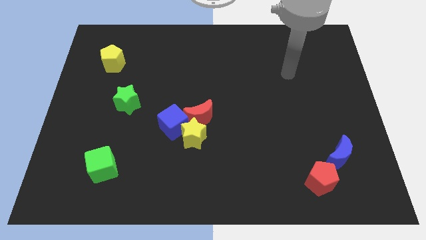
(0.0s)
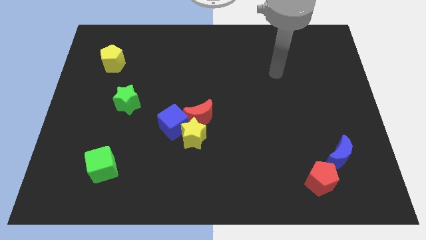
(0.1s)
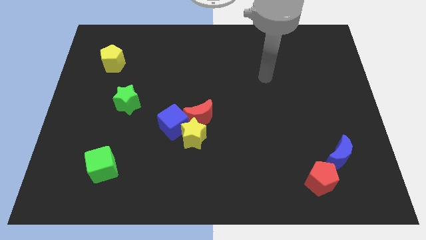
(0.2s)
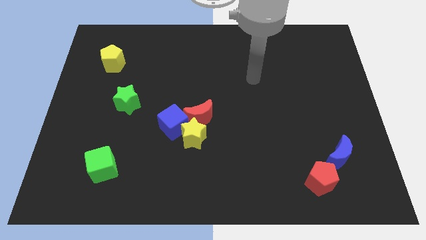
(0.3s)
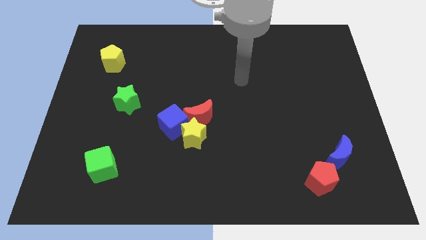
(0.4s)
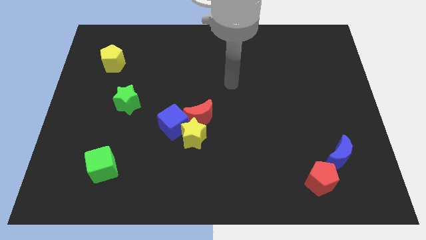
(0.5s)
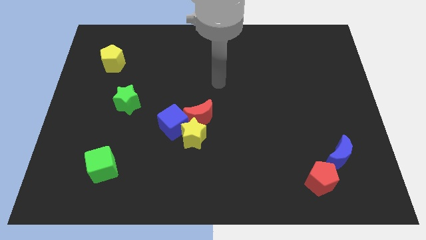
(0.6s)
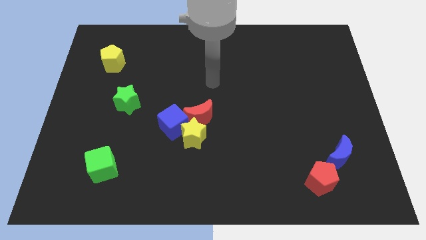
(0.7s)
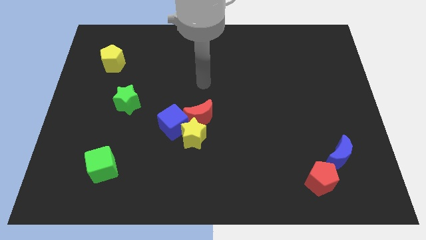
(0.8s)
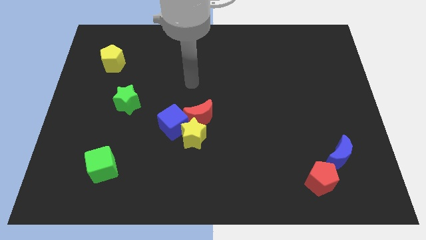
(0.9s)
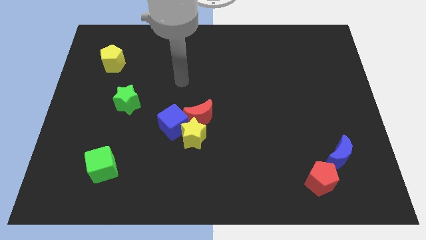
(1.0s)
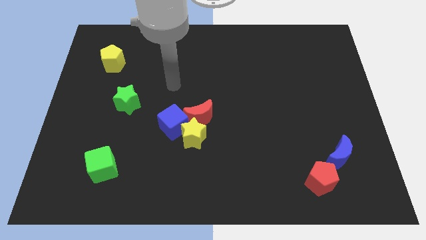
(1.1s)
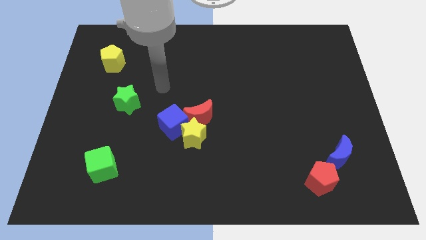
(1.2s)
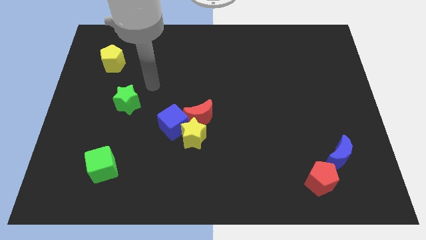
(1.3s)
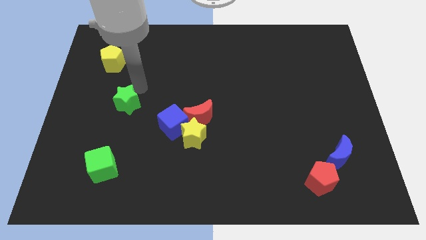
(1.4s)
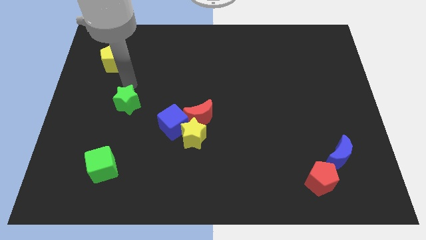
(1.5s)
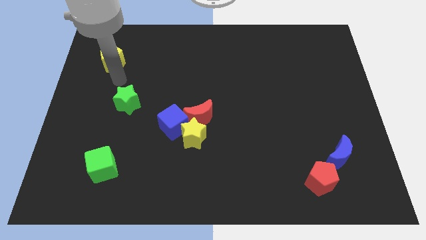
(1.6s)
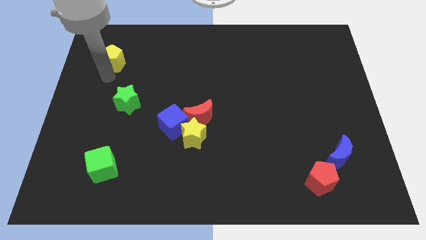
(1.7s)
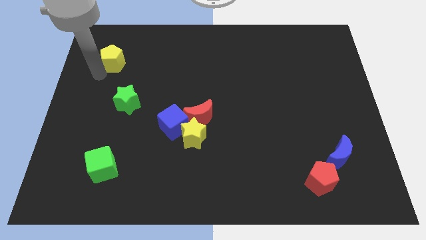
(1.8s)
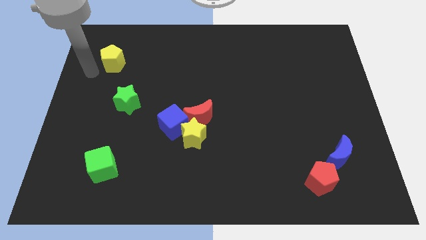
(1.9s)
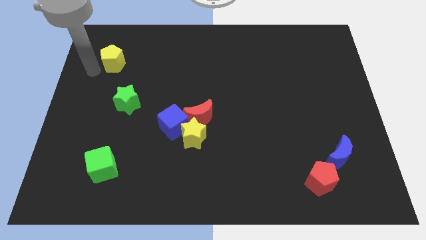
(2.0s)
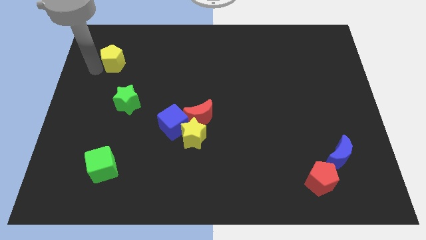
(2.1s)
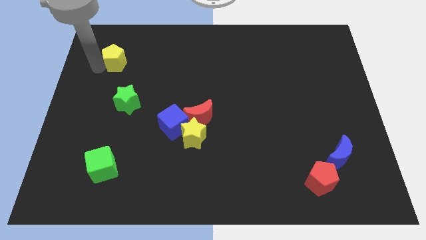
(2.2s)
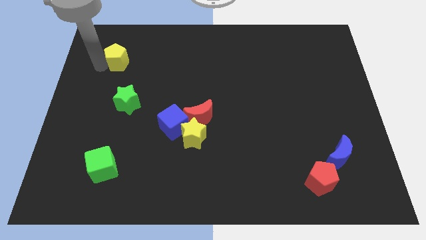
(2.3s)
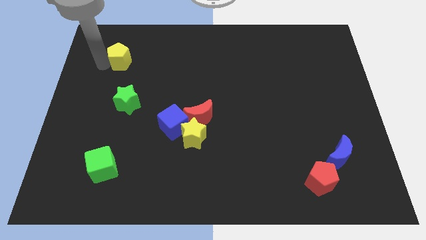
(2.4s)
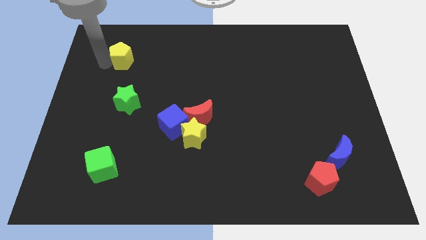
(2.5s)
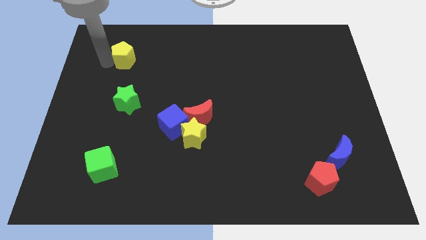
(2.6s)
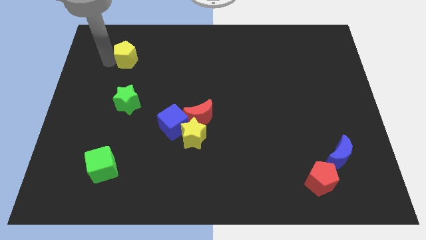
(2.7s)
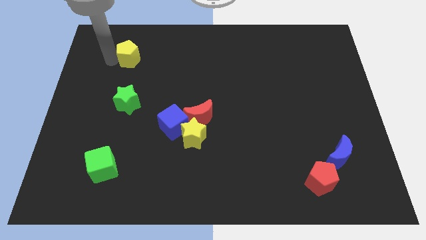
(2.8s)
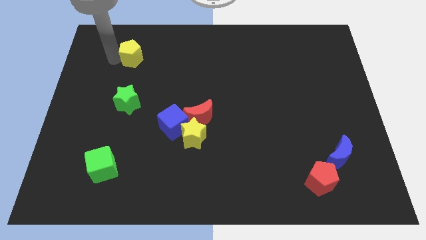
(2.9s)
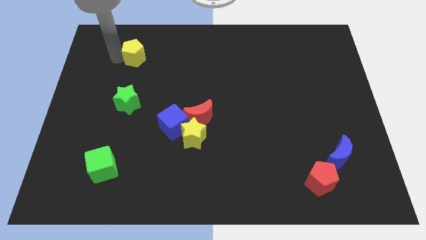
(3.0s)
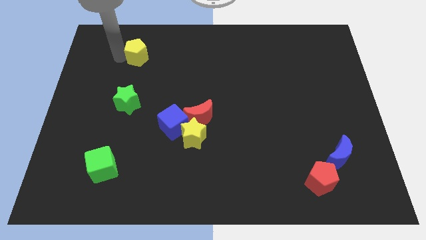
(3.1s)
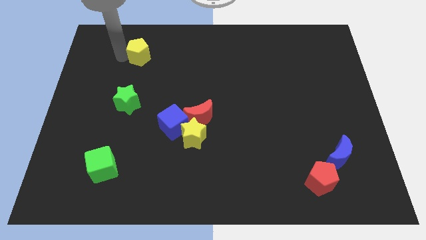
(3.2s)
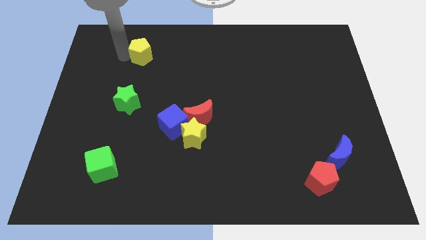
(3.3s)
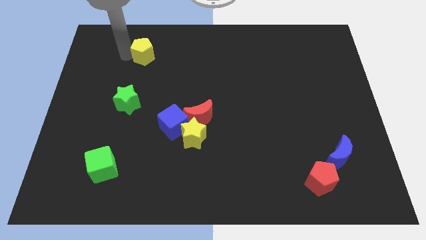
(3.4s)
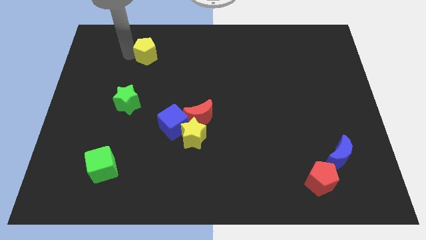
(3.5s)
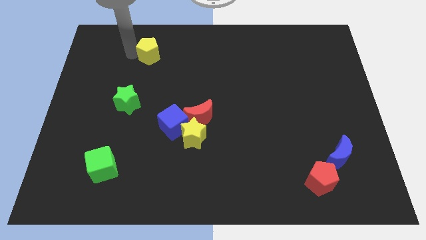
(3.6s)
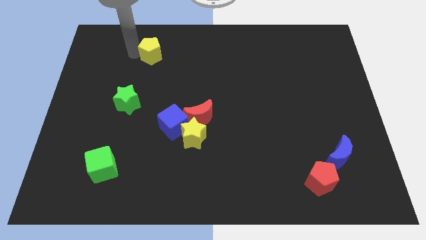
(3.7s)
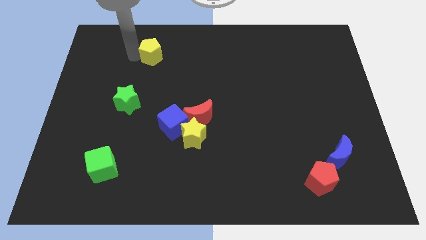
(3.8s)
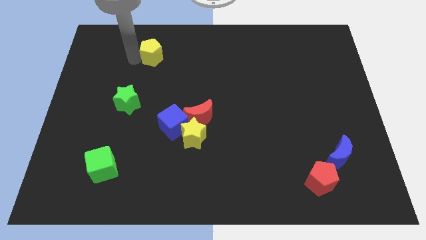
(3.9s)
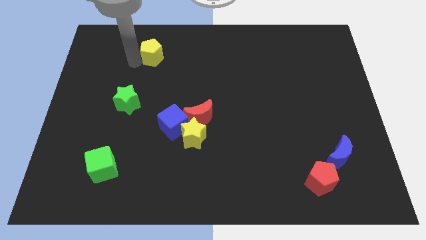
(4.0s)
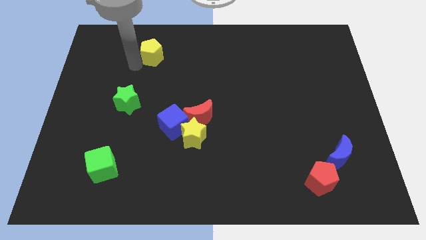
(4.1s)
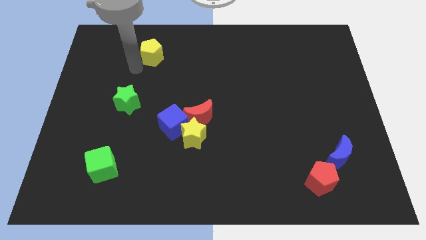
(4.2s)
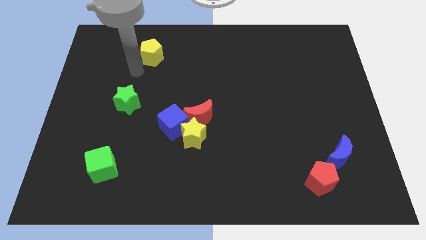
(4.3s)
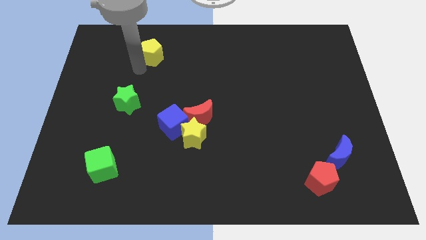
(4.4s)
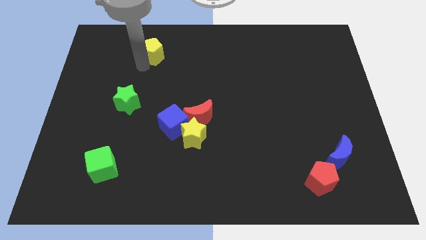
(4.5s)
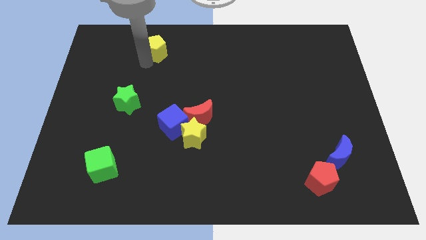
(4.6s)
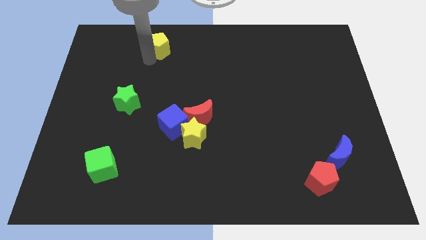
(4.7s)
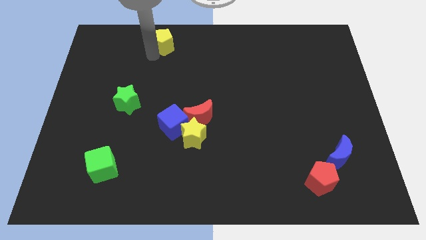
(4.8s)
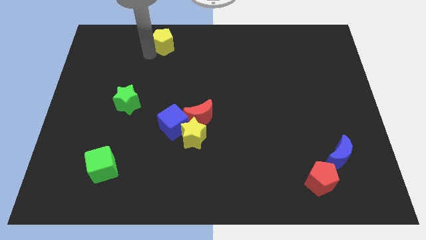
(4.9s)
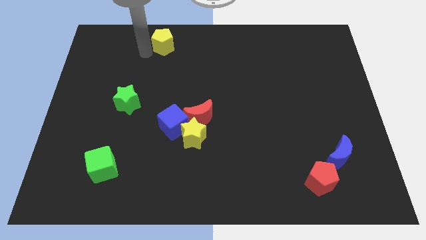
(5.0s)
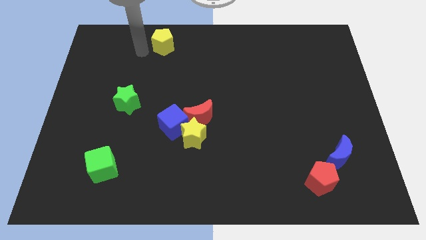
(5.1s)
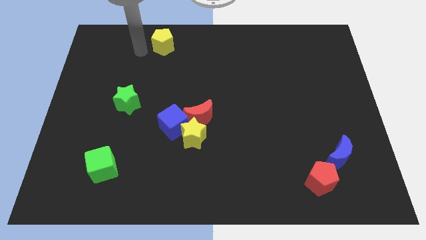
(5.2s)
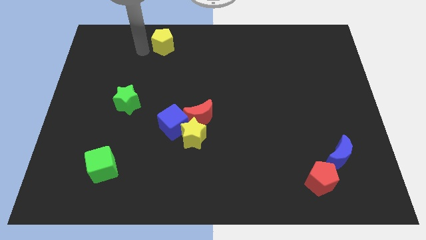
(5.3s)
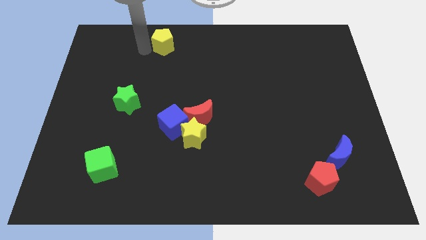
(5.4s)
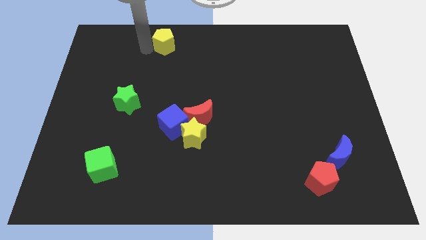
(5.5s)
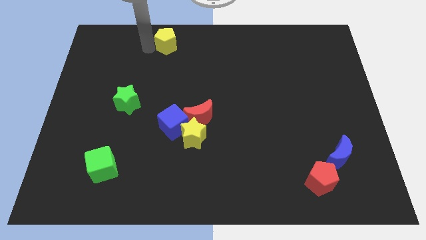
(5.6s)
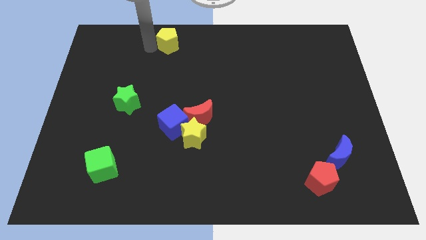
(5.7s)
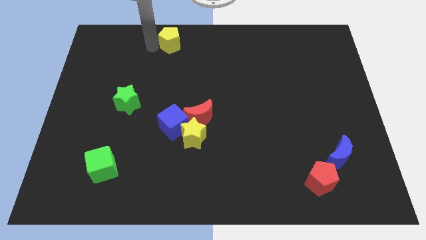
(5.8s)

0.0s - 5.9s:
push the yellow pentagon to the towards your base

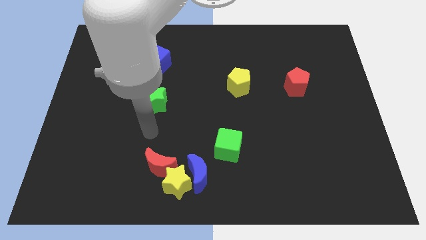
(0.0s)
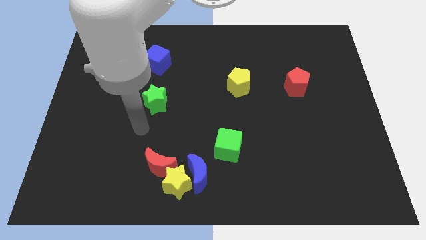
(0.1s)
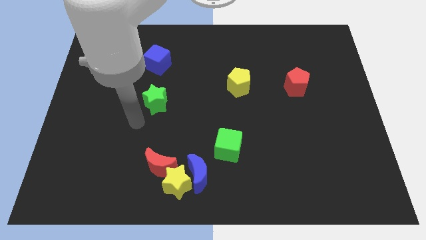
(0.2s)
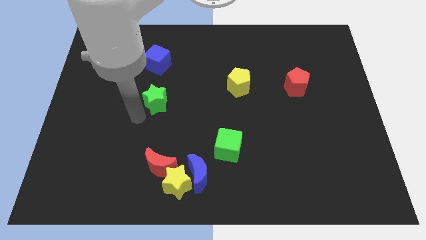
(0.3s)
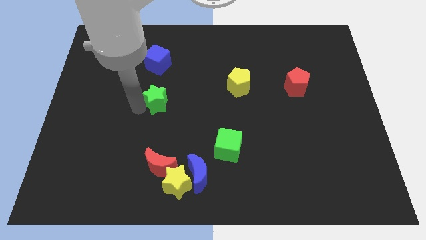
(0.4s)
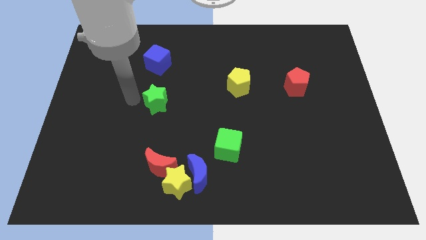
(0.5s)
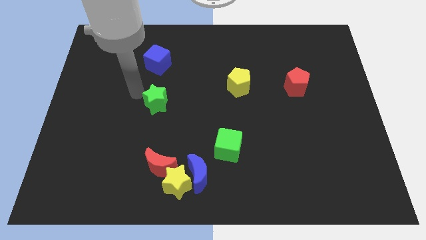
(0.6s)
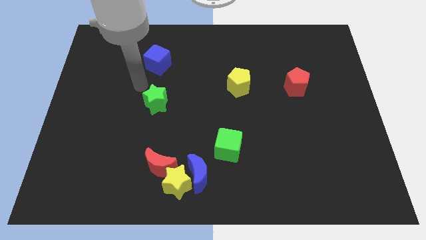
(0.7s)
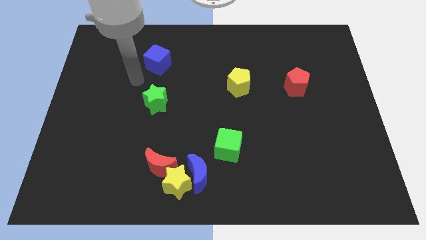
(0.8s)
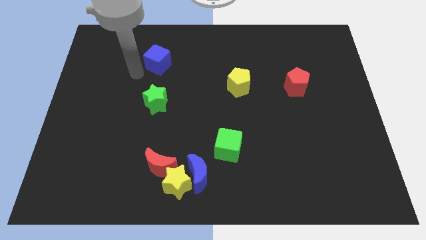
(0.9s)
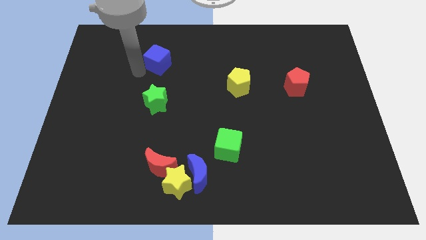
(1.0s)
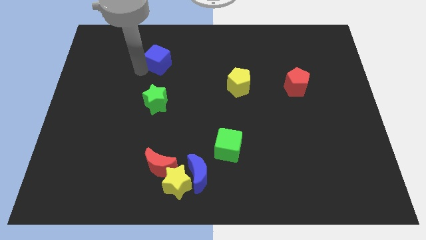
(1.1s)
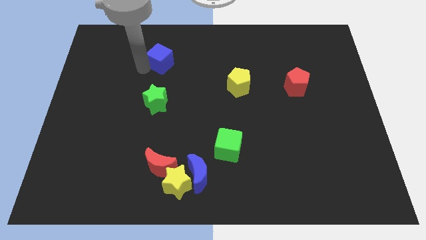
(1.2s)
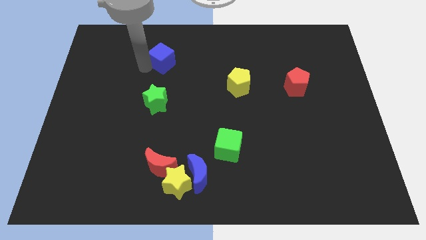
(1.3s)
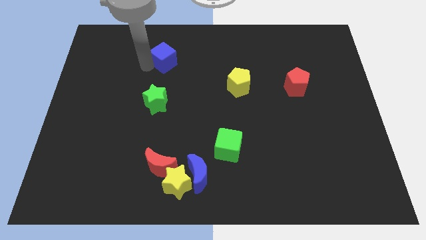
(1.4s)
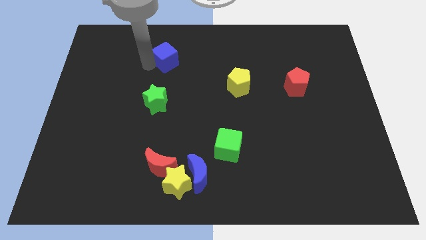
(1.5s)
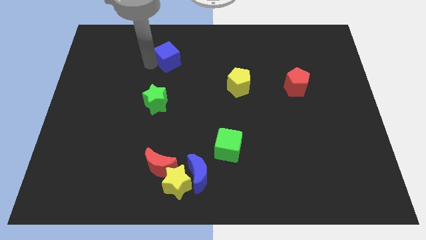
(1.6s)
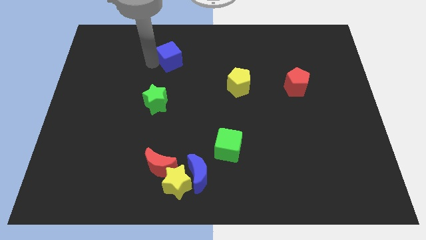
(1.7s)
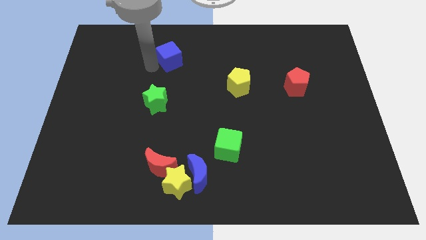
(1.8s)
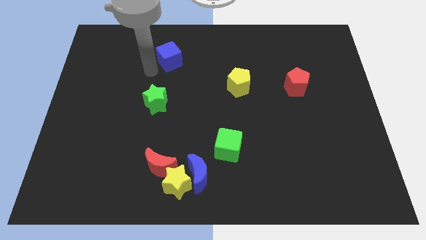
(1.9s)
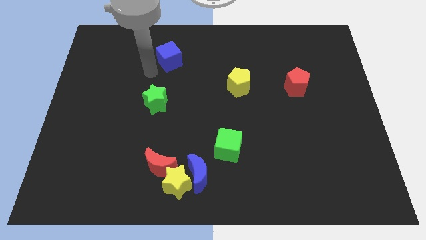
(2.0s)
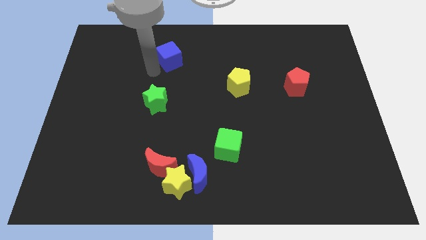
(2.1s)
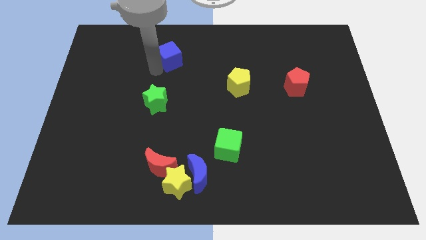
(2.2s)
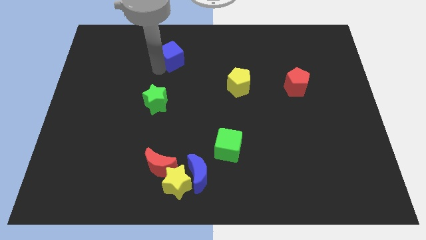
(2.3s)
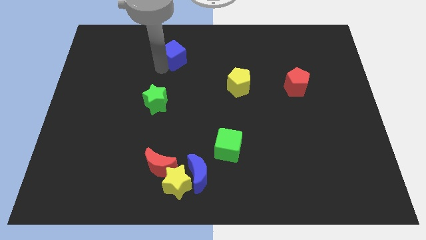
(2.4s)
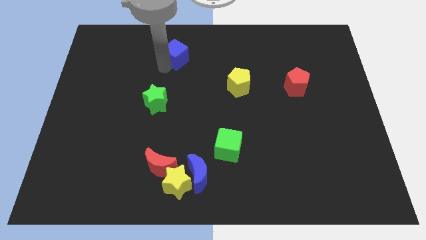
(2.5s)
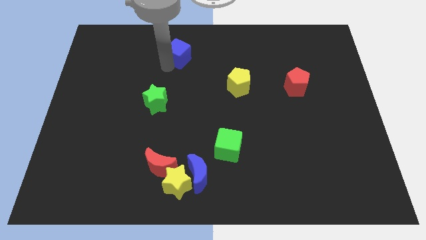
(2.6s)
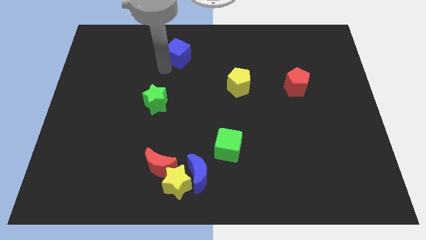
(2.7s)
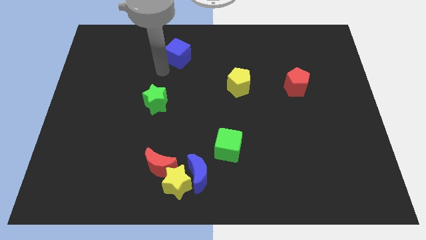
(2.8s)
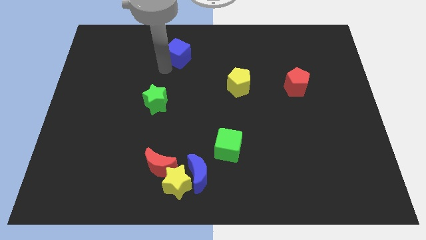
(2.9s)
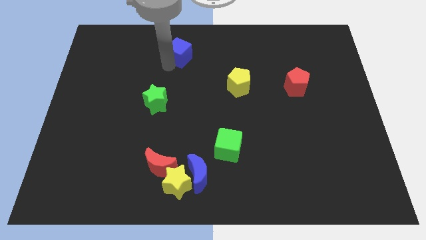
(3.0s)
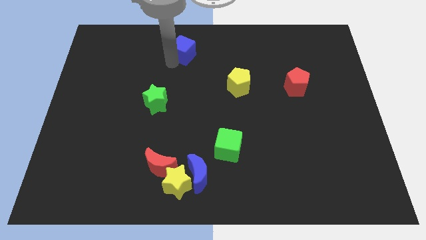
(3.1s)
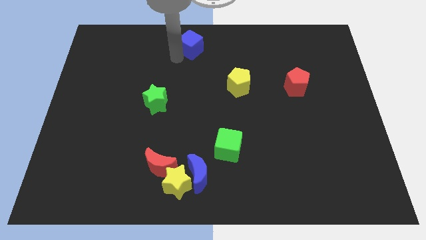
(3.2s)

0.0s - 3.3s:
move the blue cube to the towards your base
